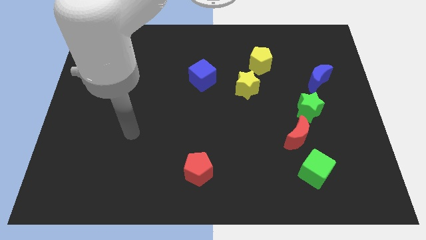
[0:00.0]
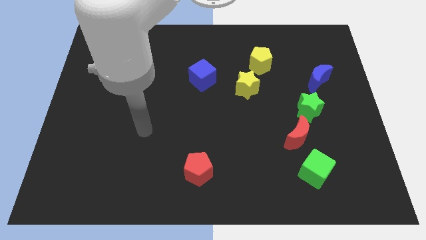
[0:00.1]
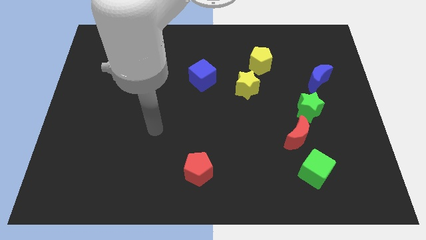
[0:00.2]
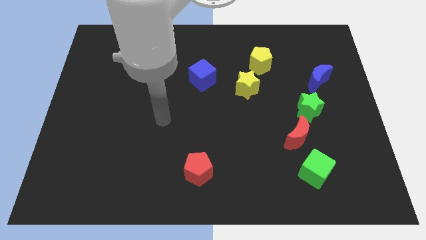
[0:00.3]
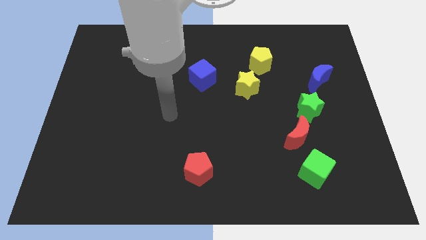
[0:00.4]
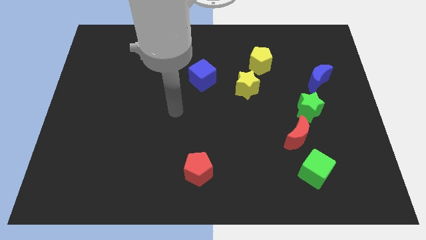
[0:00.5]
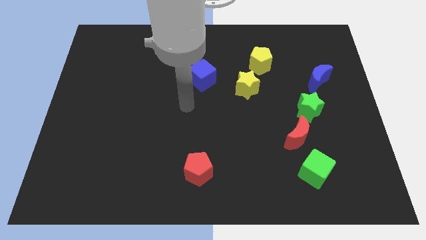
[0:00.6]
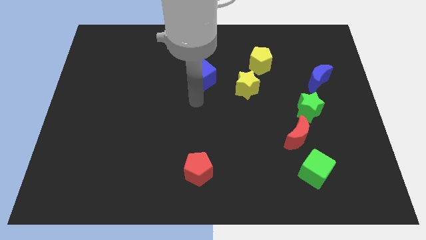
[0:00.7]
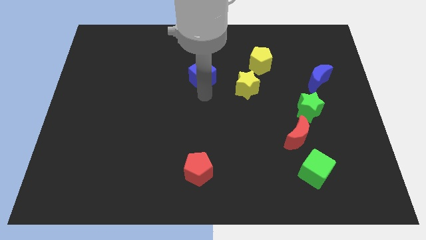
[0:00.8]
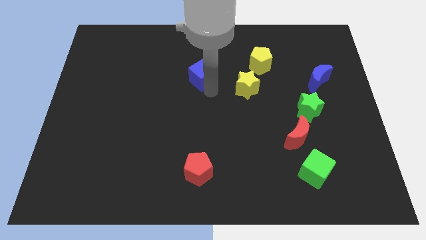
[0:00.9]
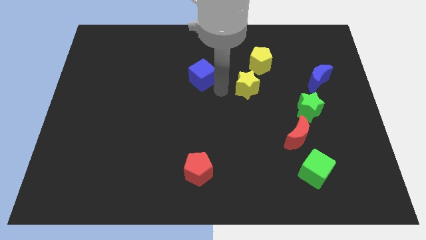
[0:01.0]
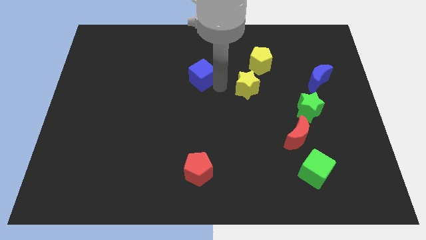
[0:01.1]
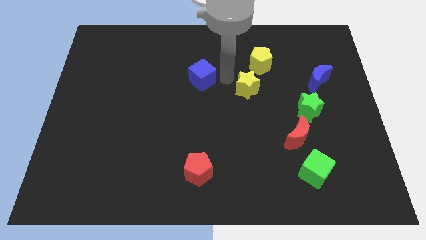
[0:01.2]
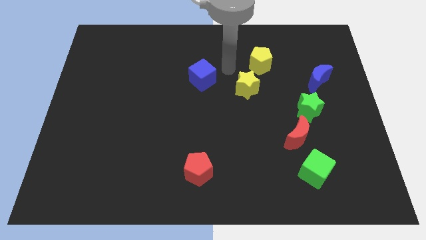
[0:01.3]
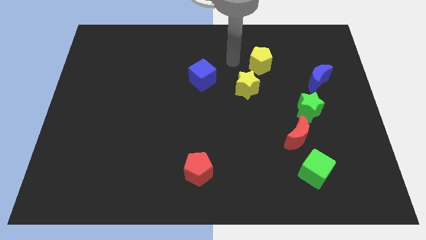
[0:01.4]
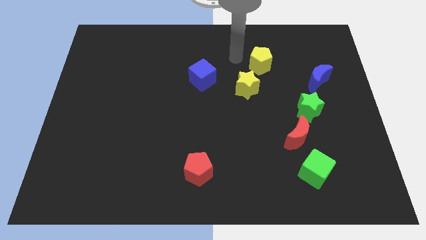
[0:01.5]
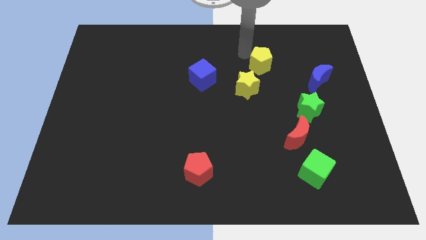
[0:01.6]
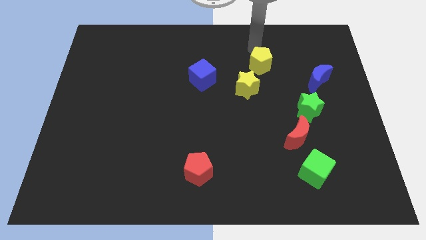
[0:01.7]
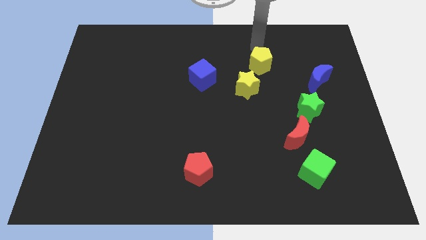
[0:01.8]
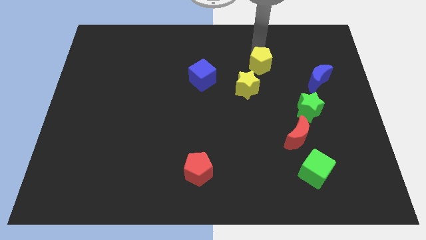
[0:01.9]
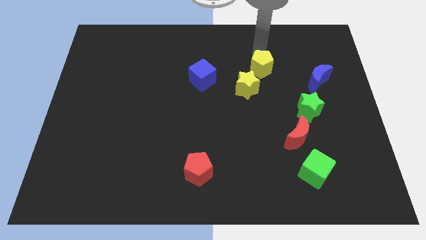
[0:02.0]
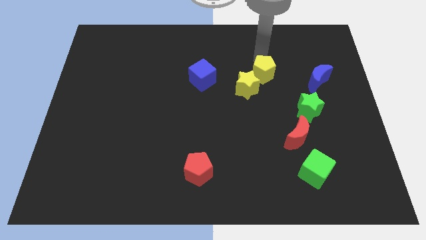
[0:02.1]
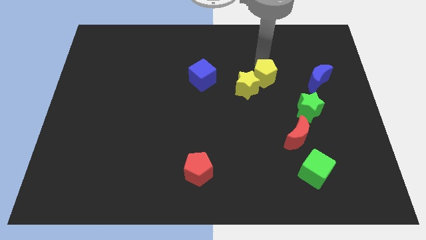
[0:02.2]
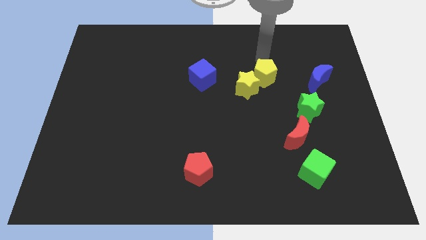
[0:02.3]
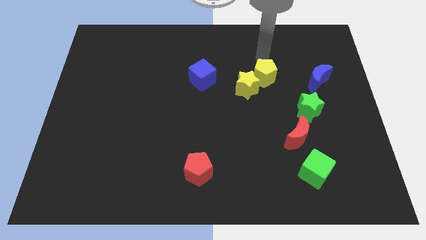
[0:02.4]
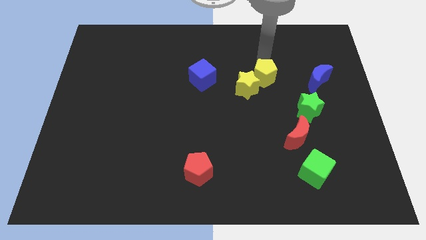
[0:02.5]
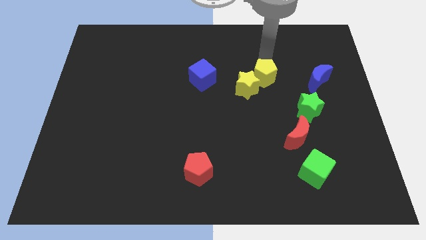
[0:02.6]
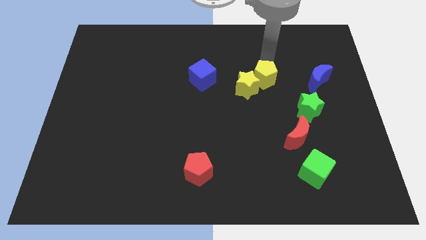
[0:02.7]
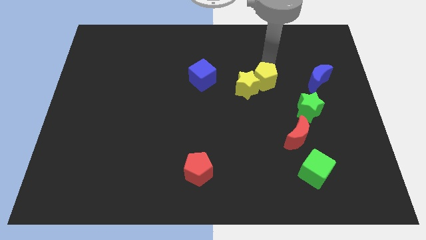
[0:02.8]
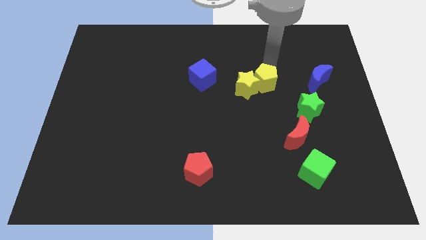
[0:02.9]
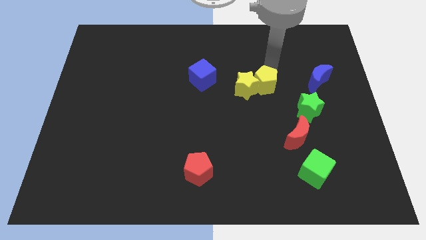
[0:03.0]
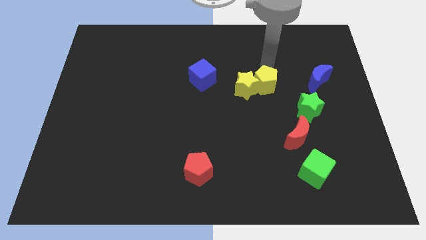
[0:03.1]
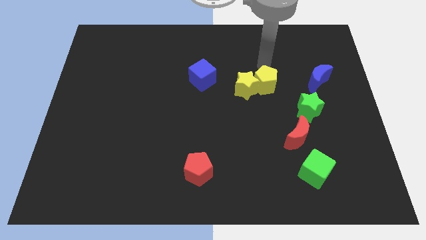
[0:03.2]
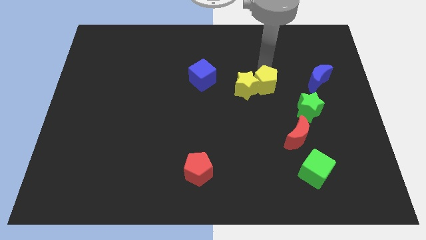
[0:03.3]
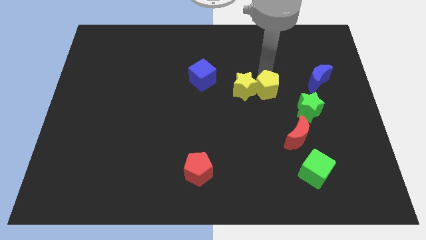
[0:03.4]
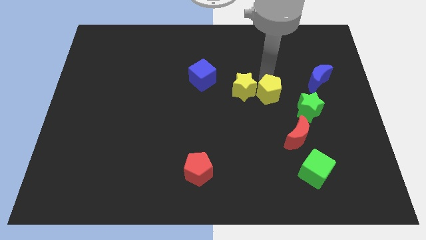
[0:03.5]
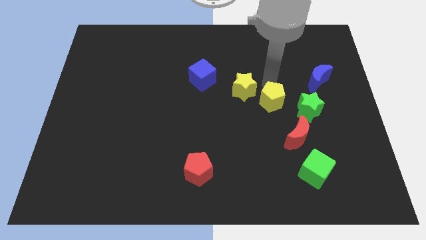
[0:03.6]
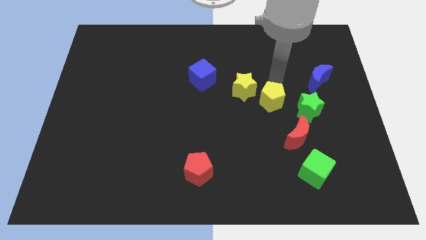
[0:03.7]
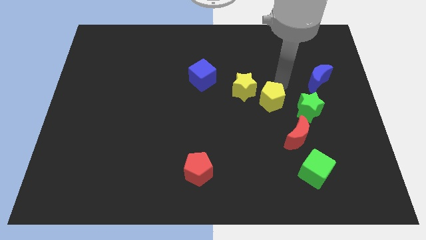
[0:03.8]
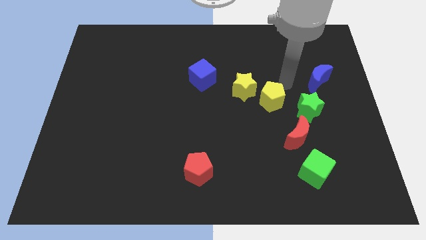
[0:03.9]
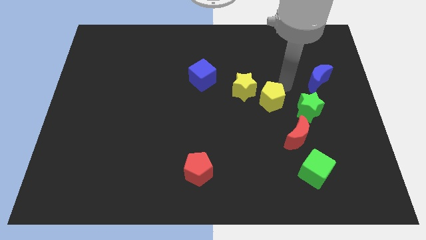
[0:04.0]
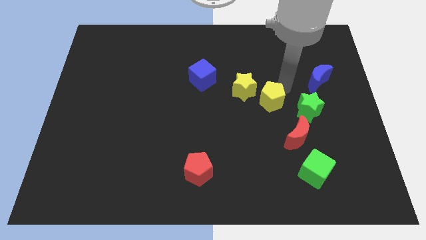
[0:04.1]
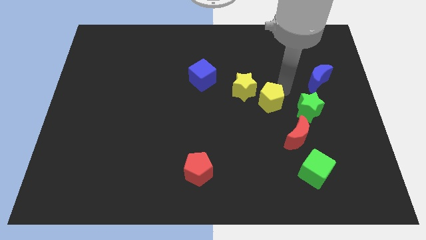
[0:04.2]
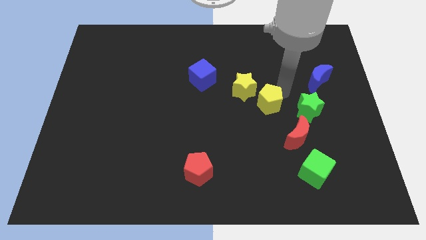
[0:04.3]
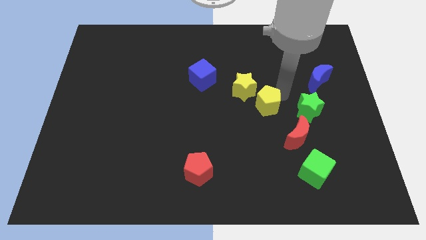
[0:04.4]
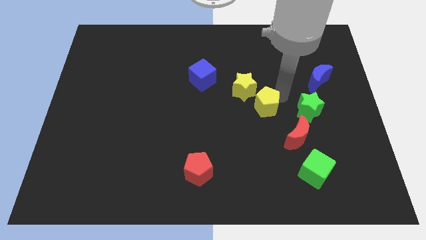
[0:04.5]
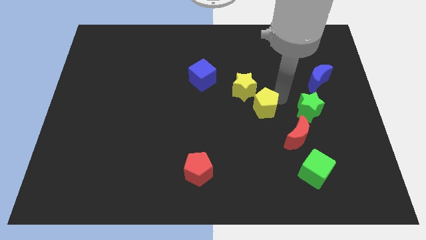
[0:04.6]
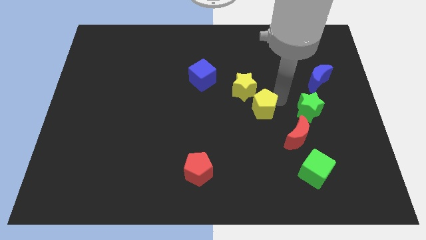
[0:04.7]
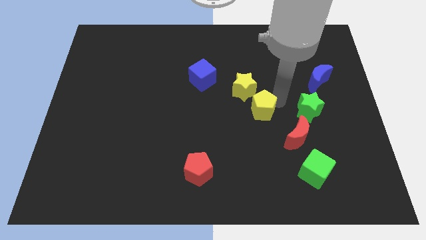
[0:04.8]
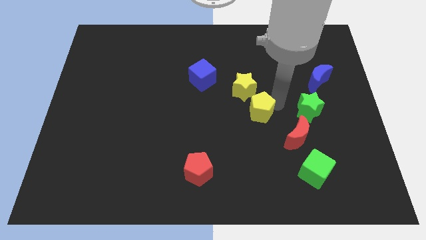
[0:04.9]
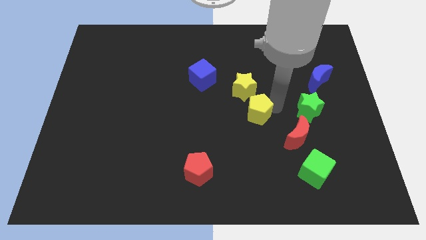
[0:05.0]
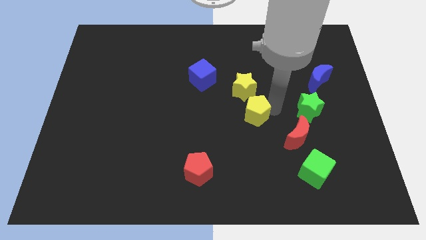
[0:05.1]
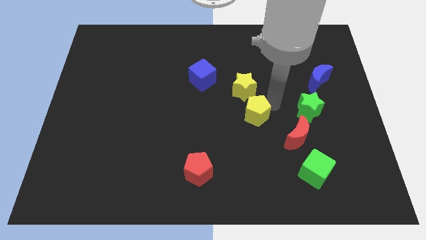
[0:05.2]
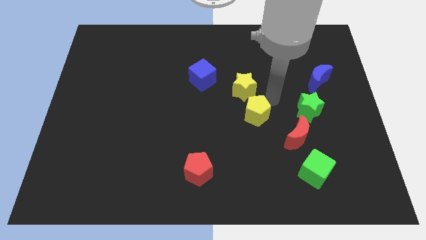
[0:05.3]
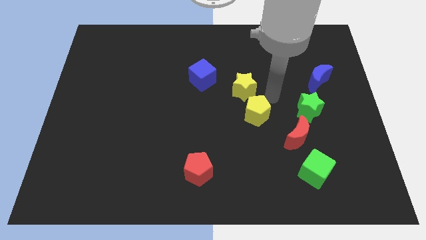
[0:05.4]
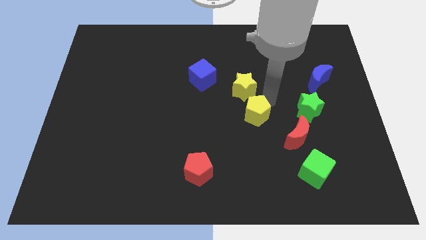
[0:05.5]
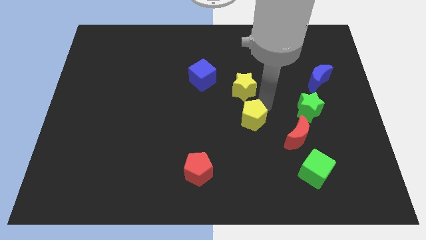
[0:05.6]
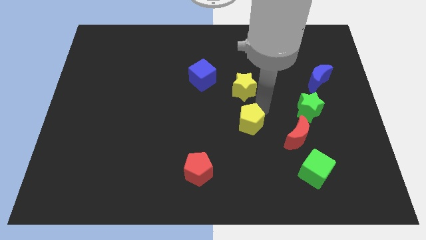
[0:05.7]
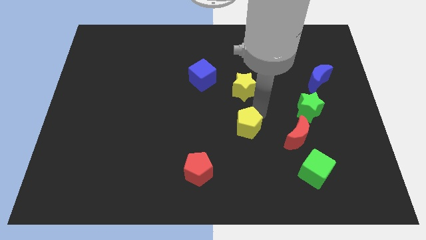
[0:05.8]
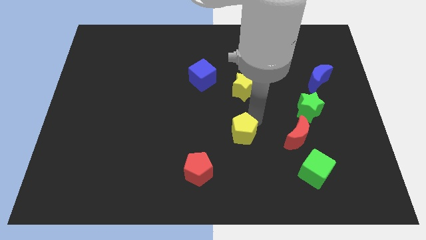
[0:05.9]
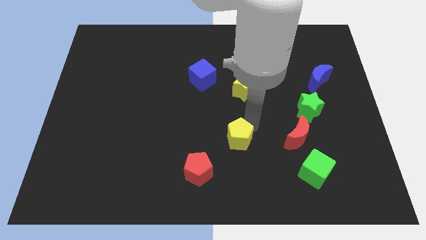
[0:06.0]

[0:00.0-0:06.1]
move the yellow pentagon to the top right of the red pentagon

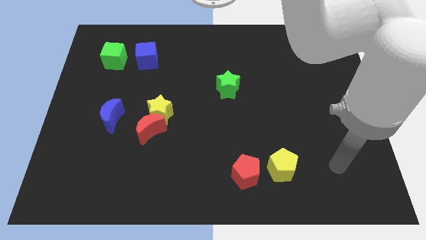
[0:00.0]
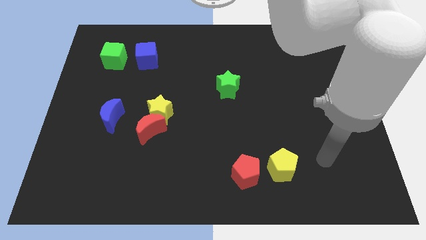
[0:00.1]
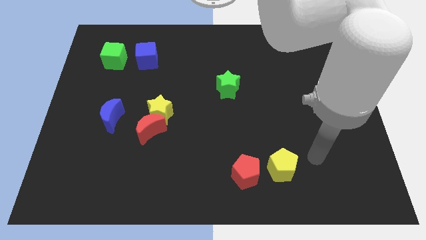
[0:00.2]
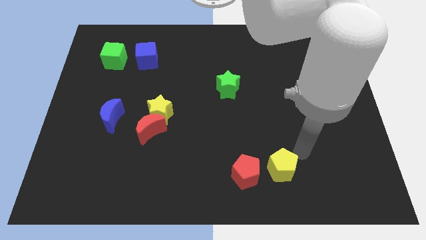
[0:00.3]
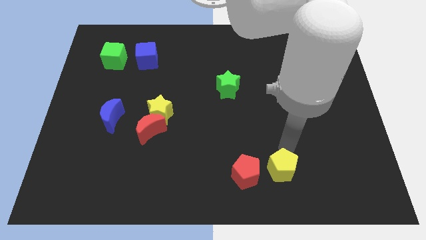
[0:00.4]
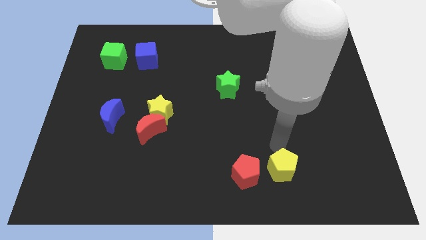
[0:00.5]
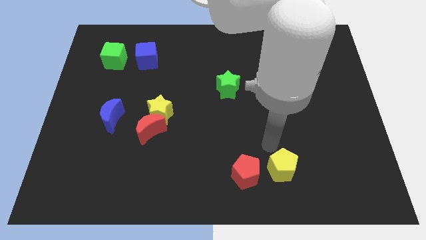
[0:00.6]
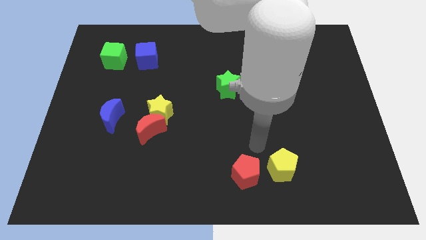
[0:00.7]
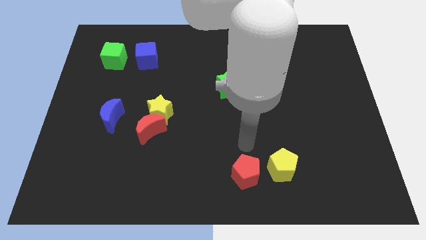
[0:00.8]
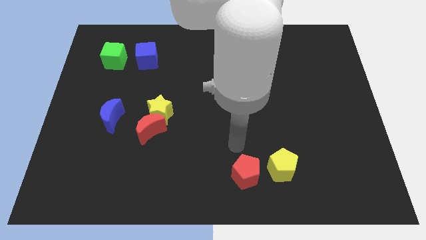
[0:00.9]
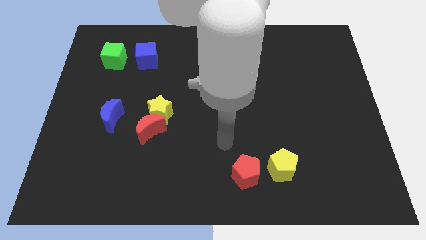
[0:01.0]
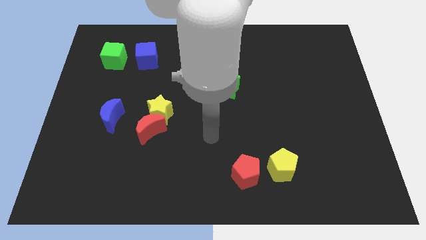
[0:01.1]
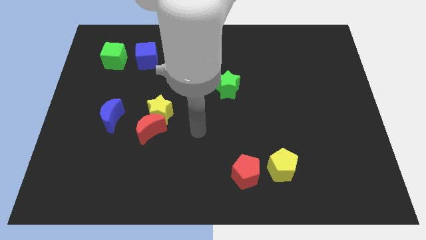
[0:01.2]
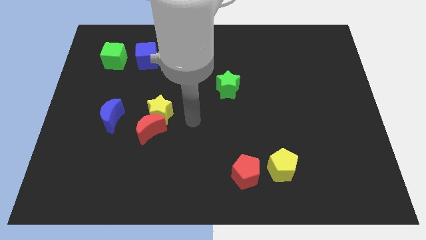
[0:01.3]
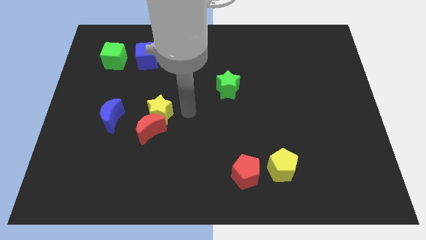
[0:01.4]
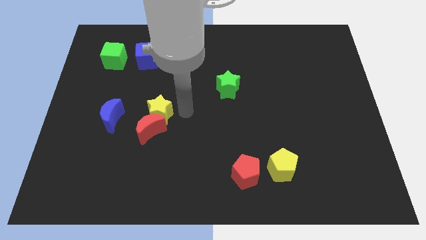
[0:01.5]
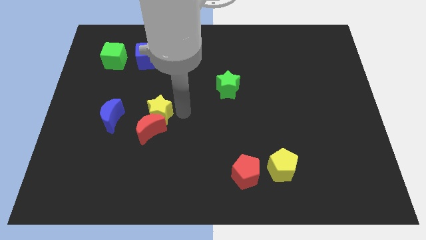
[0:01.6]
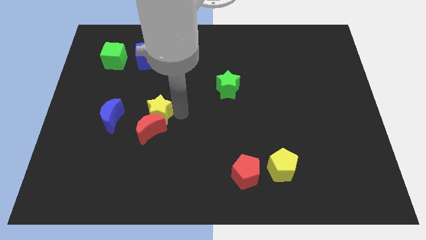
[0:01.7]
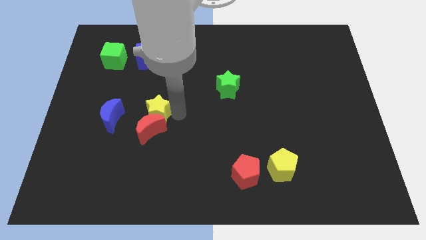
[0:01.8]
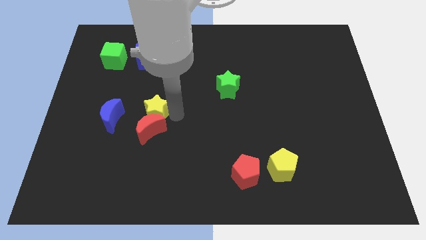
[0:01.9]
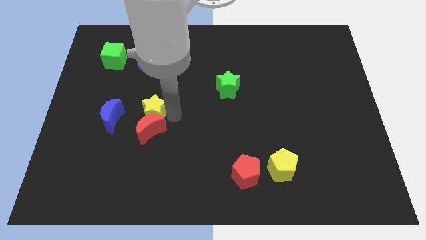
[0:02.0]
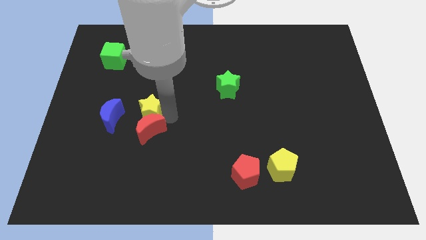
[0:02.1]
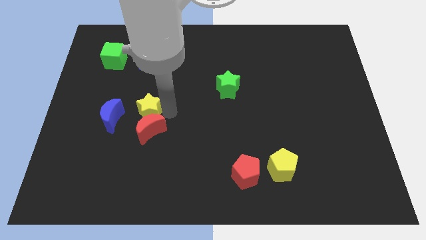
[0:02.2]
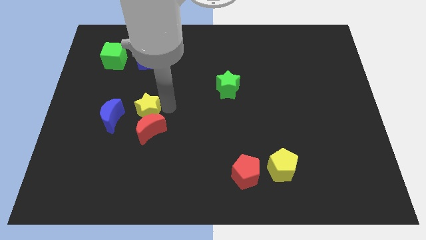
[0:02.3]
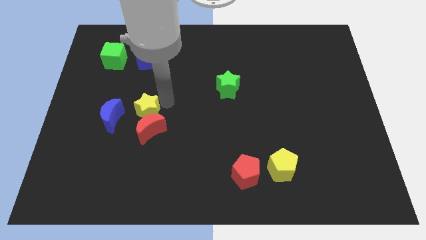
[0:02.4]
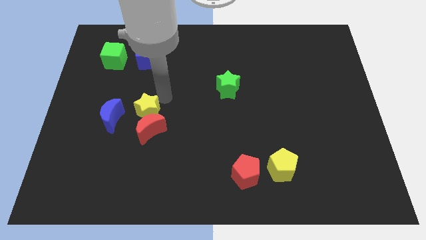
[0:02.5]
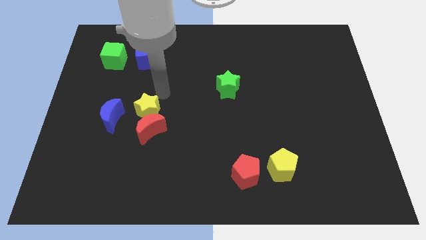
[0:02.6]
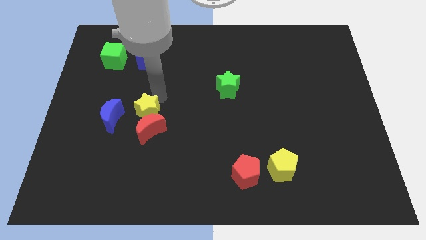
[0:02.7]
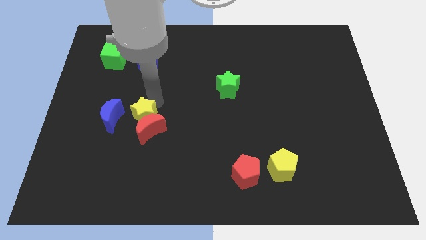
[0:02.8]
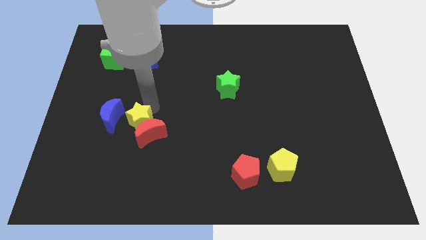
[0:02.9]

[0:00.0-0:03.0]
push the yellow star diagonally down and to the right of the blue moon
